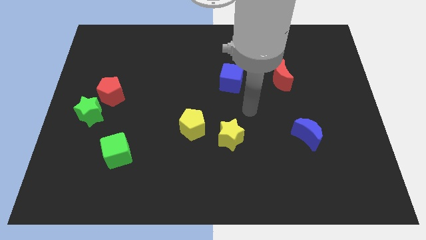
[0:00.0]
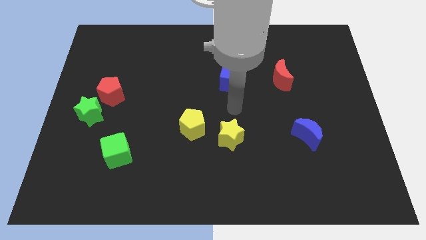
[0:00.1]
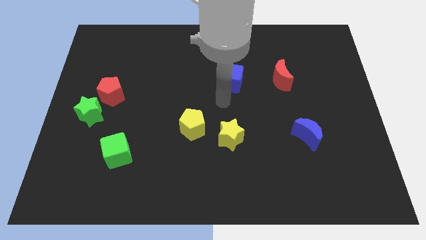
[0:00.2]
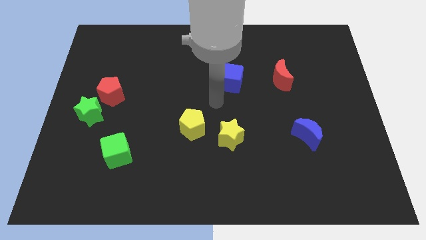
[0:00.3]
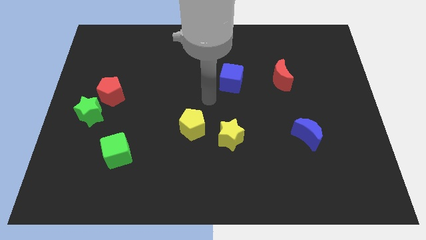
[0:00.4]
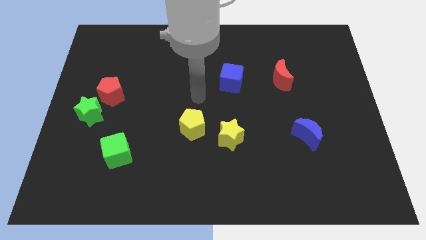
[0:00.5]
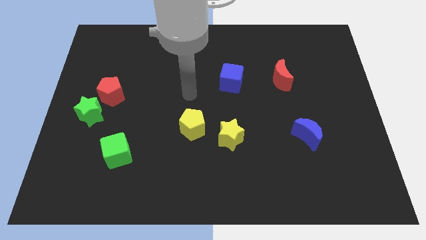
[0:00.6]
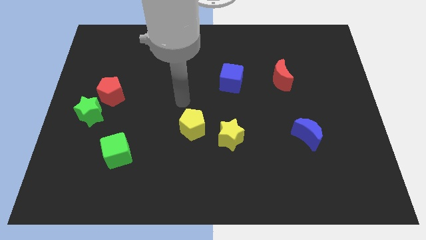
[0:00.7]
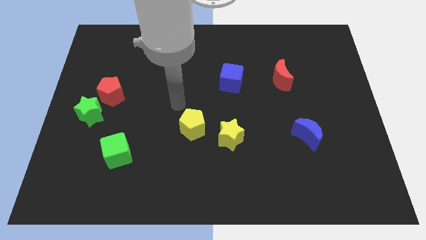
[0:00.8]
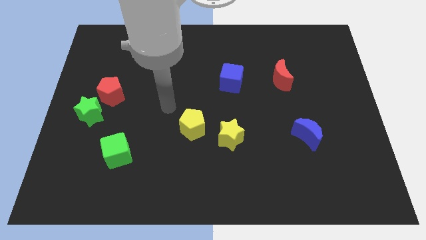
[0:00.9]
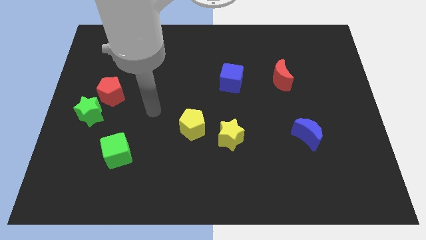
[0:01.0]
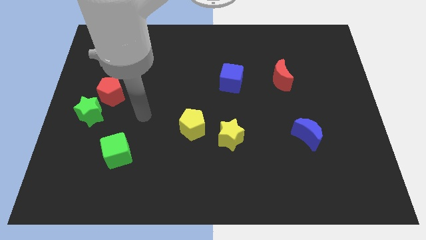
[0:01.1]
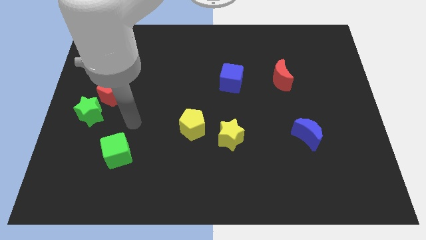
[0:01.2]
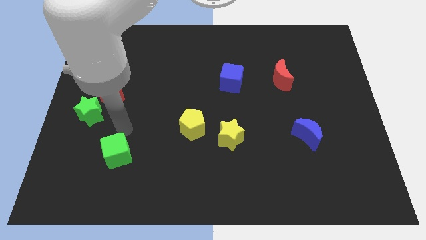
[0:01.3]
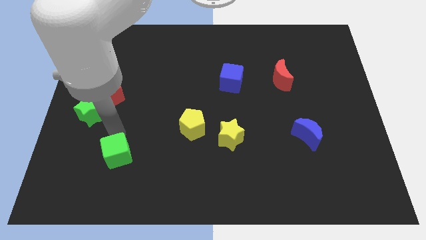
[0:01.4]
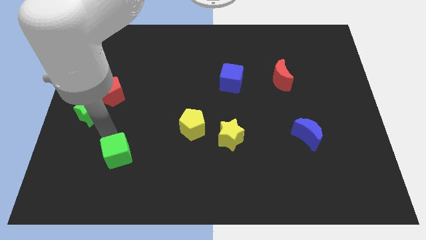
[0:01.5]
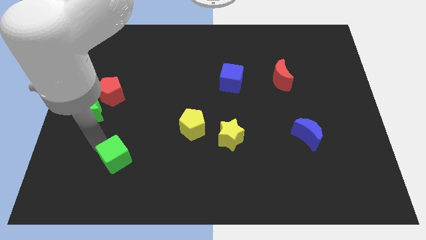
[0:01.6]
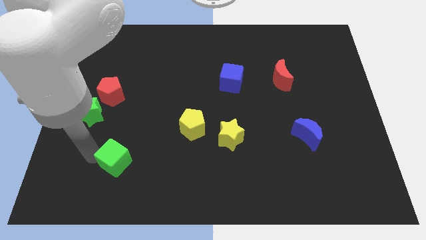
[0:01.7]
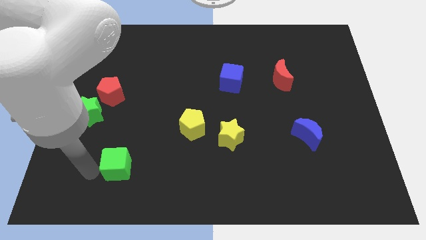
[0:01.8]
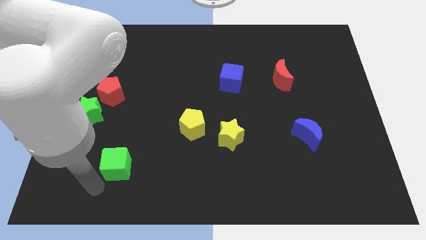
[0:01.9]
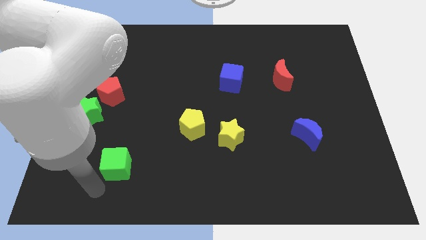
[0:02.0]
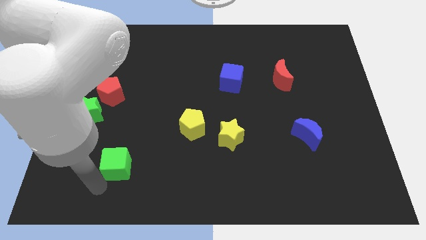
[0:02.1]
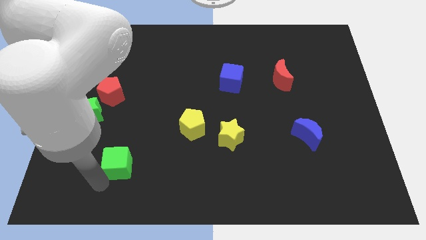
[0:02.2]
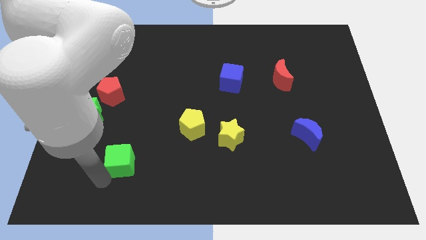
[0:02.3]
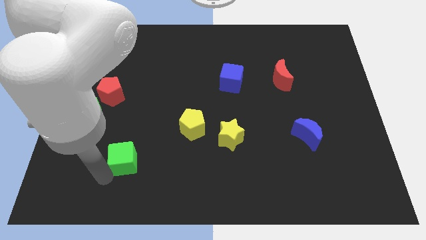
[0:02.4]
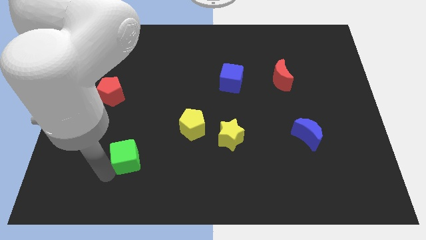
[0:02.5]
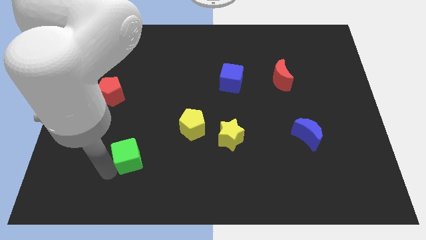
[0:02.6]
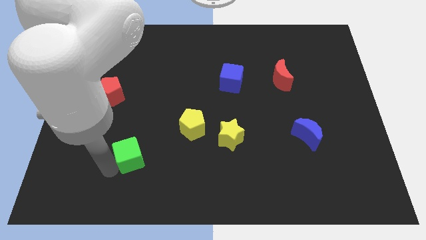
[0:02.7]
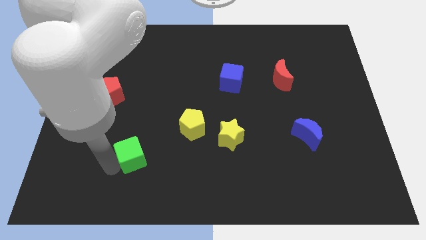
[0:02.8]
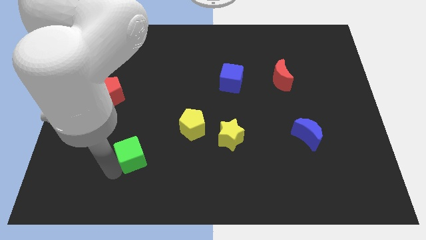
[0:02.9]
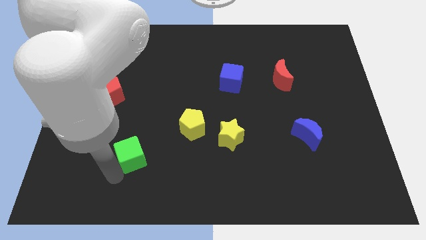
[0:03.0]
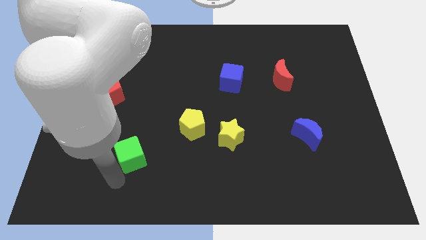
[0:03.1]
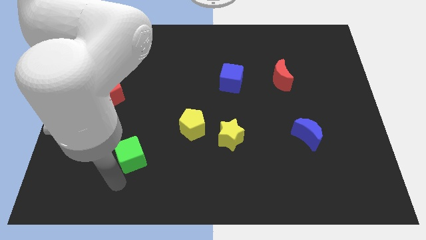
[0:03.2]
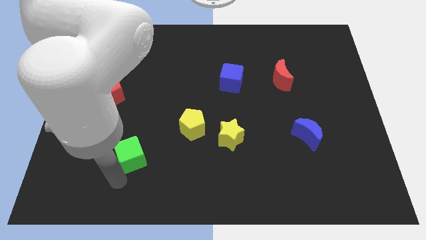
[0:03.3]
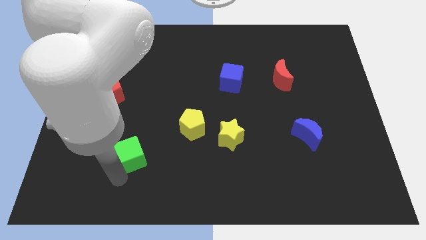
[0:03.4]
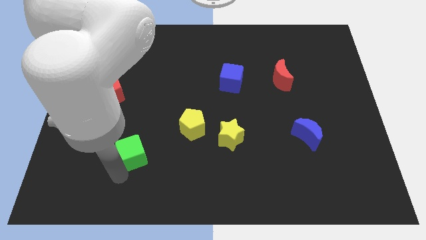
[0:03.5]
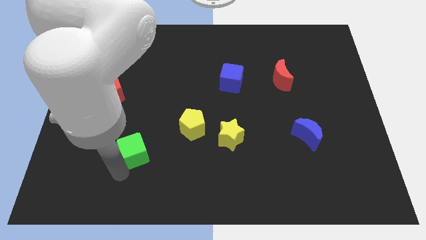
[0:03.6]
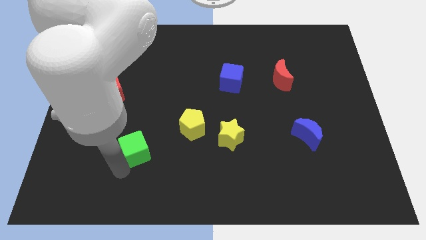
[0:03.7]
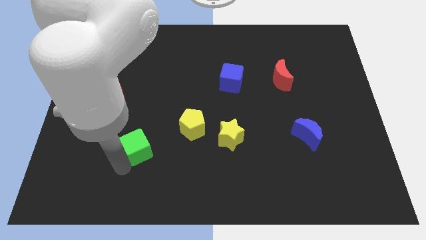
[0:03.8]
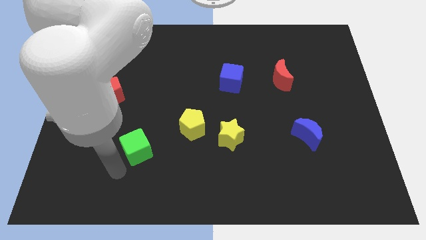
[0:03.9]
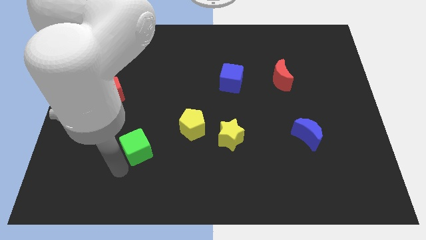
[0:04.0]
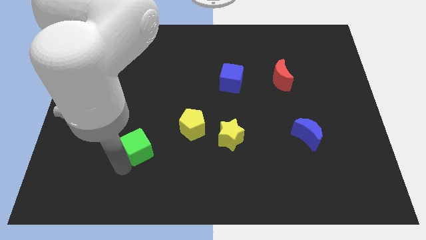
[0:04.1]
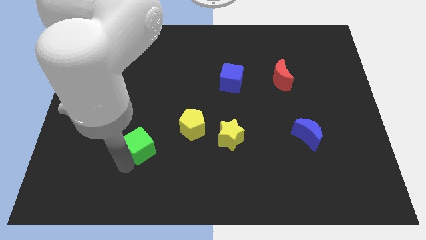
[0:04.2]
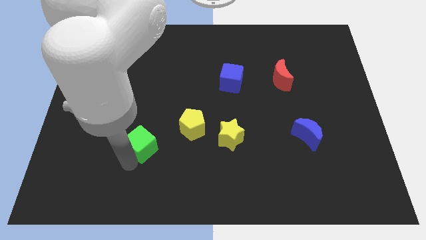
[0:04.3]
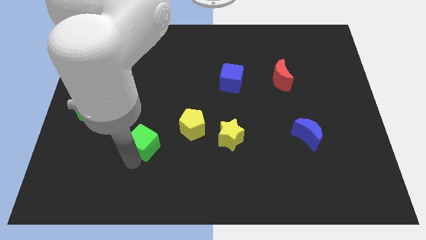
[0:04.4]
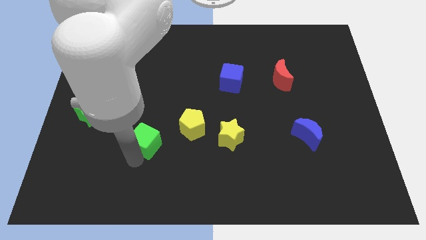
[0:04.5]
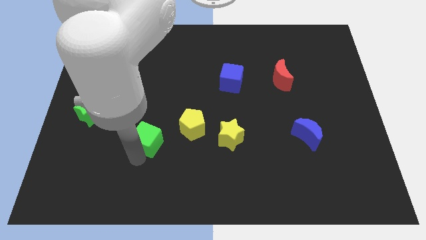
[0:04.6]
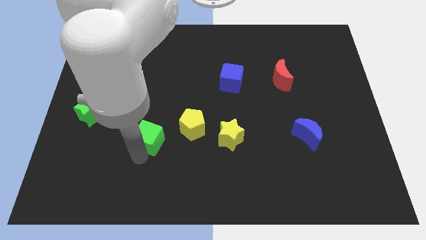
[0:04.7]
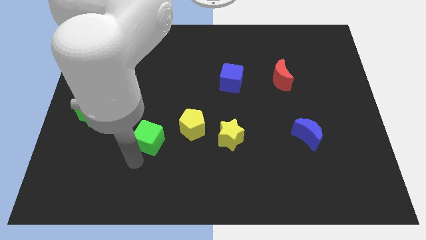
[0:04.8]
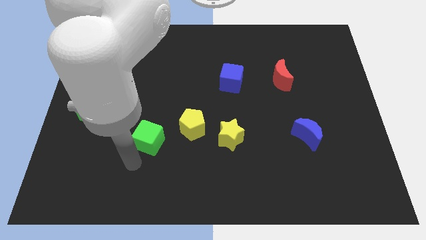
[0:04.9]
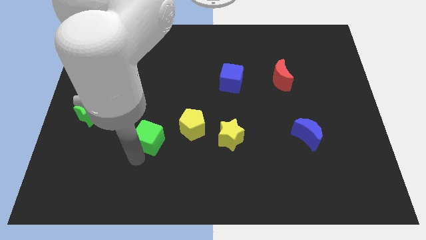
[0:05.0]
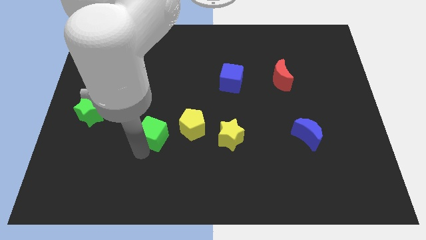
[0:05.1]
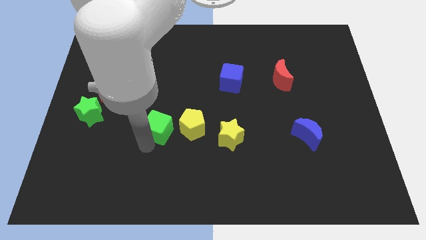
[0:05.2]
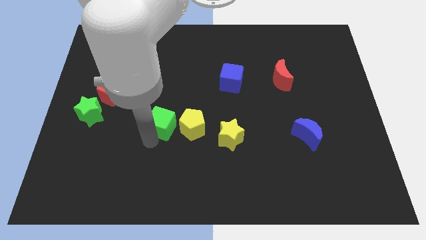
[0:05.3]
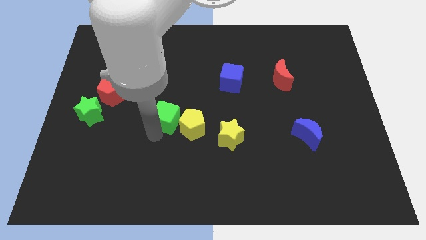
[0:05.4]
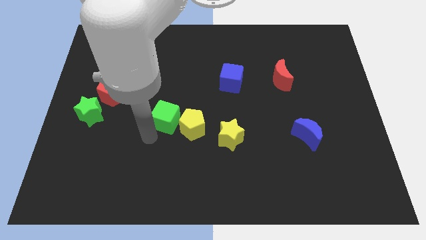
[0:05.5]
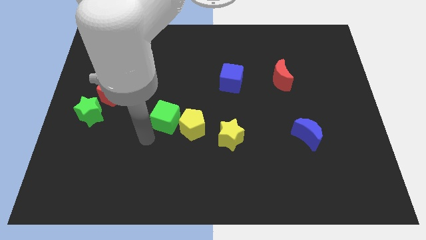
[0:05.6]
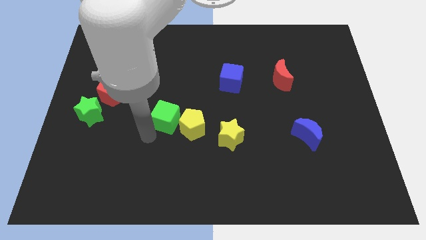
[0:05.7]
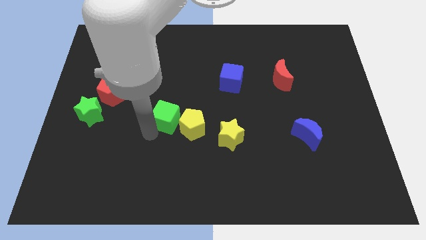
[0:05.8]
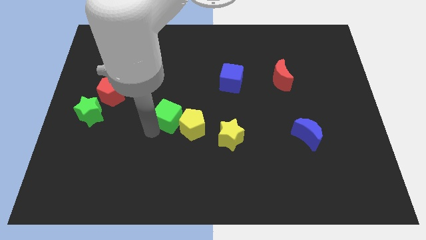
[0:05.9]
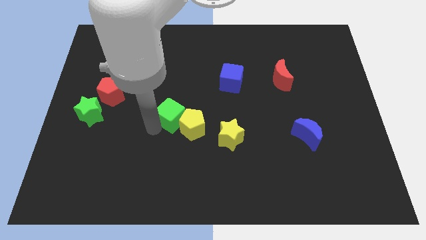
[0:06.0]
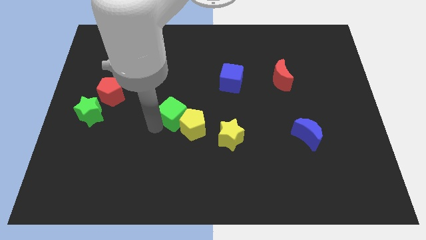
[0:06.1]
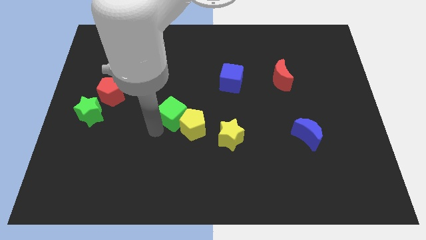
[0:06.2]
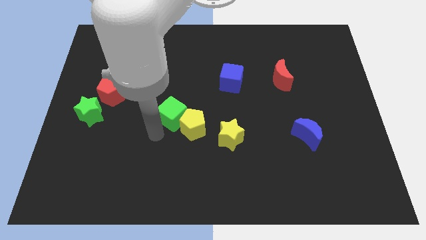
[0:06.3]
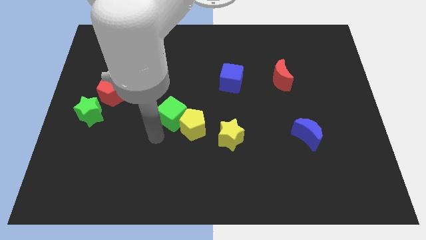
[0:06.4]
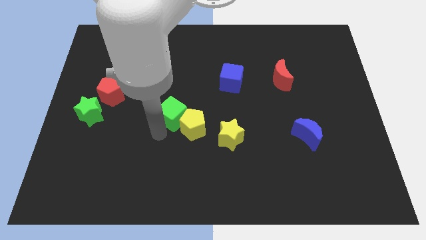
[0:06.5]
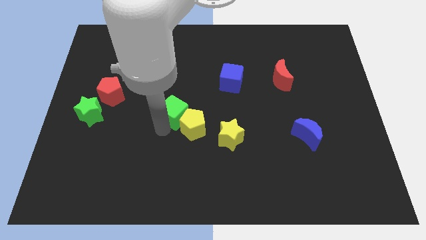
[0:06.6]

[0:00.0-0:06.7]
move the green cube to the top of the yellow pentagon

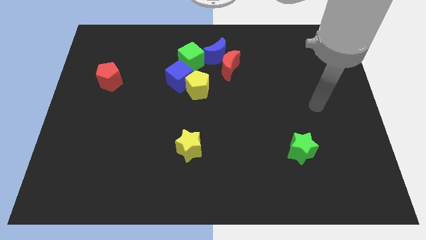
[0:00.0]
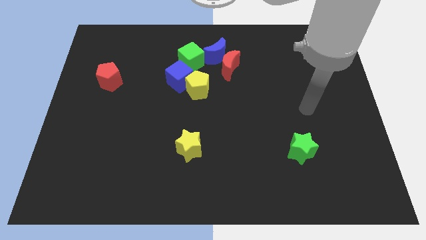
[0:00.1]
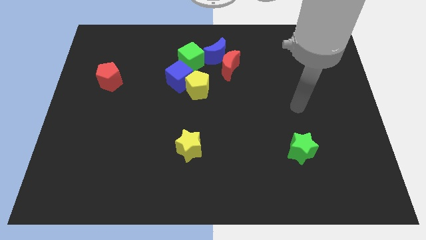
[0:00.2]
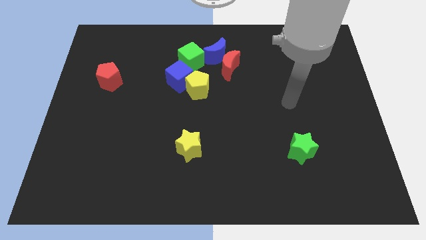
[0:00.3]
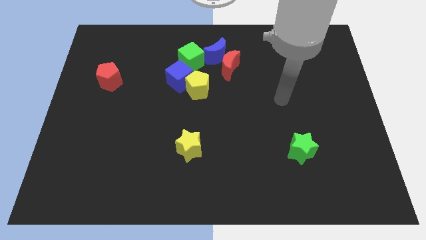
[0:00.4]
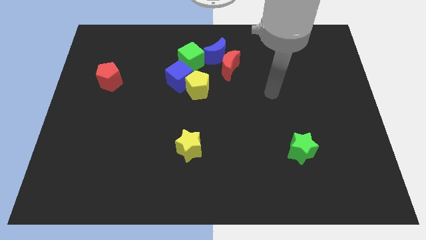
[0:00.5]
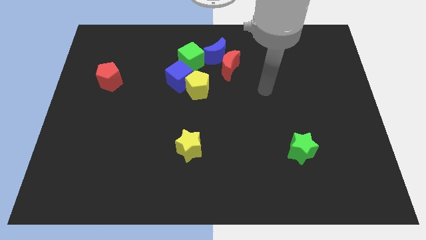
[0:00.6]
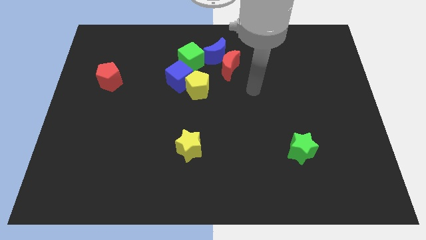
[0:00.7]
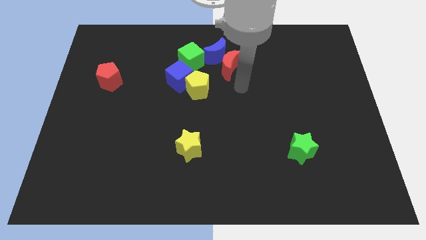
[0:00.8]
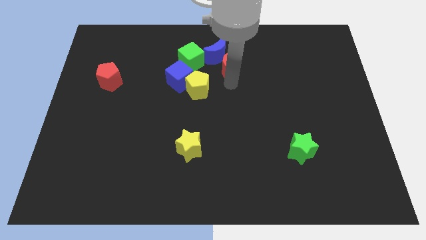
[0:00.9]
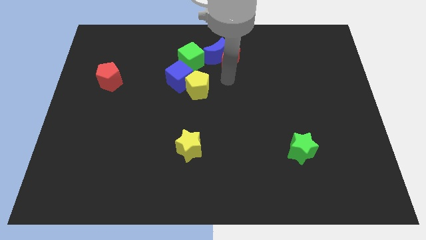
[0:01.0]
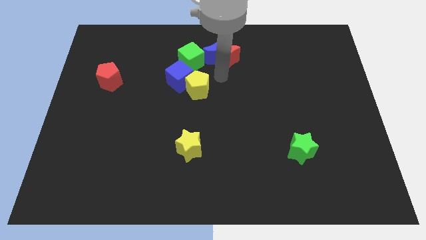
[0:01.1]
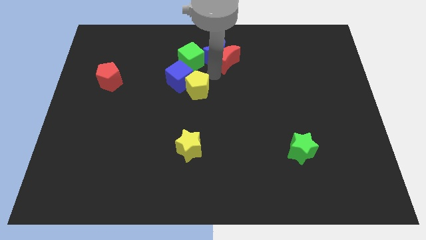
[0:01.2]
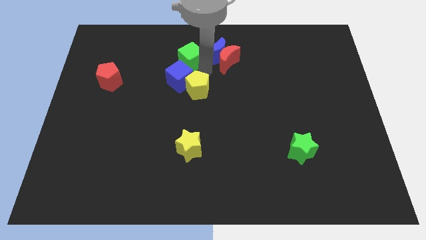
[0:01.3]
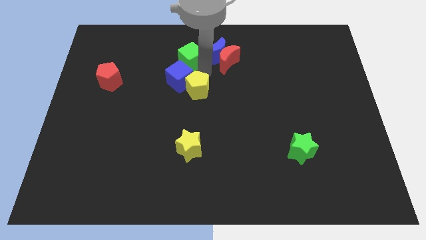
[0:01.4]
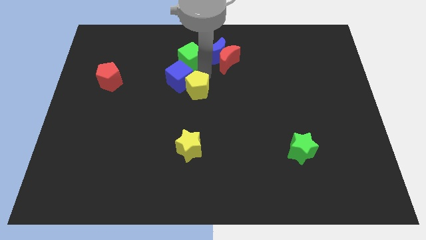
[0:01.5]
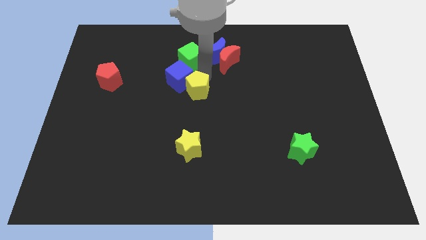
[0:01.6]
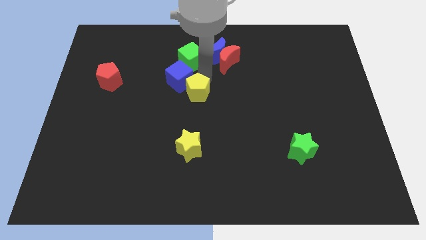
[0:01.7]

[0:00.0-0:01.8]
put the yellow pentagon to the top side of the yellow star
